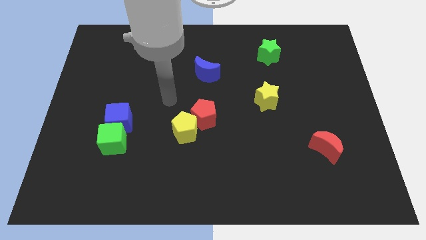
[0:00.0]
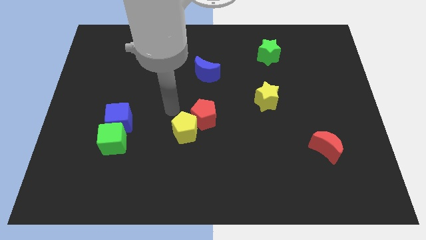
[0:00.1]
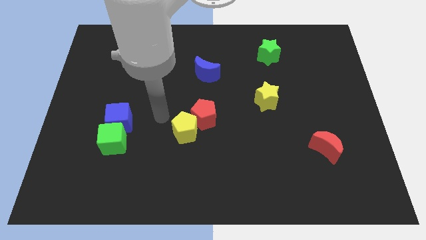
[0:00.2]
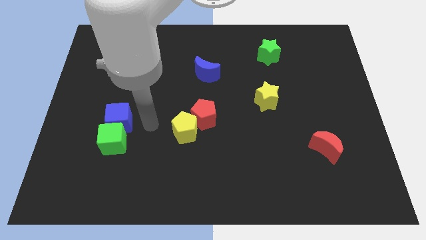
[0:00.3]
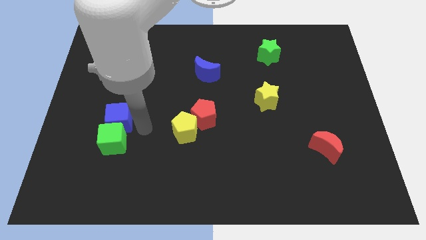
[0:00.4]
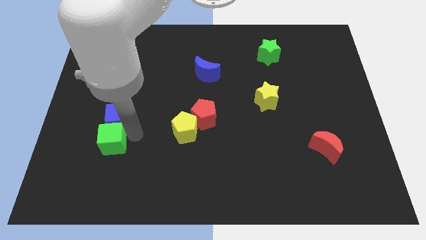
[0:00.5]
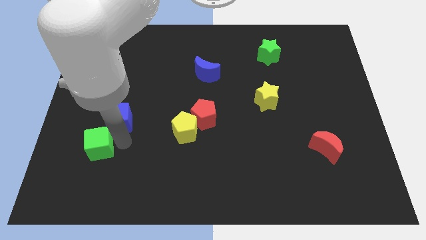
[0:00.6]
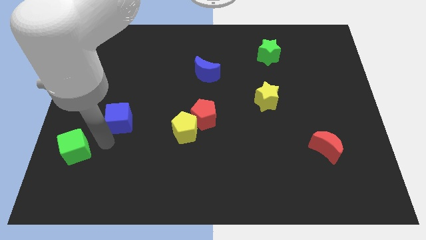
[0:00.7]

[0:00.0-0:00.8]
separate the blue cube from the green cube

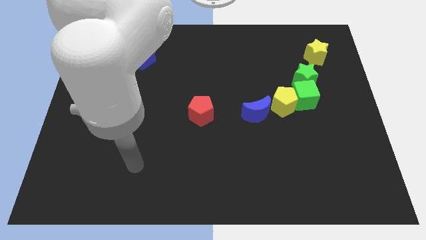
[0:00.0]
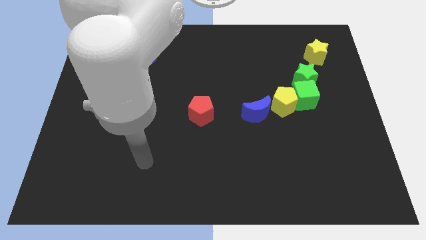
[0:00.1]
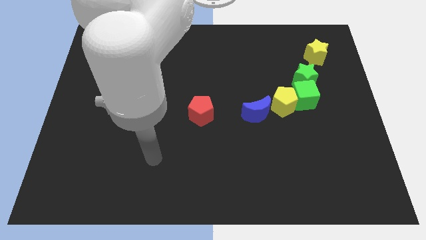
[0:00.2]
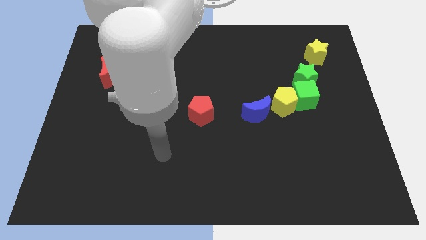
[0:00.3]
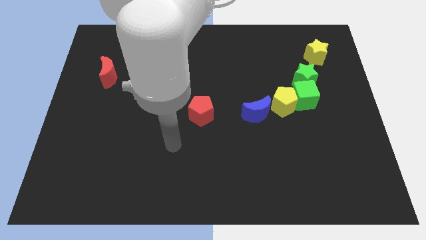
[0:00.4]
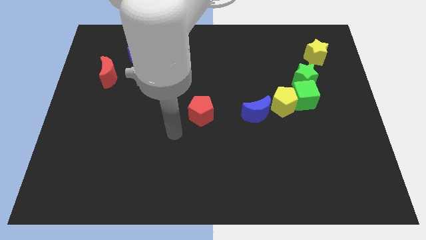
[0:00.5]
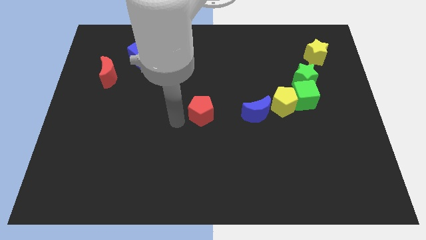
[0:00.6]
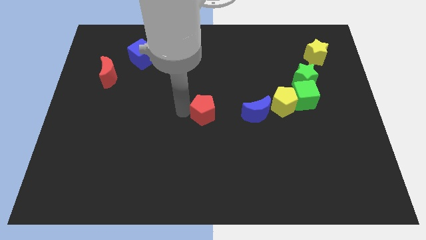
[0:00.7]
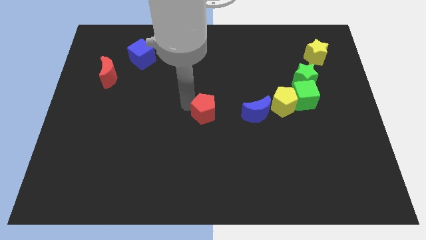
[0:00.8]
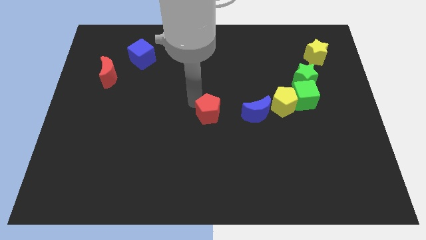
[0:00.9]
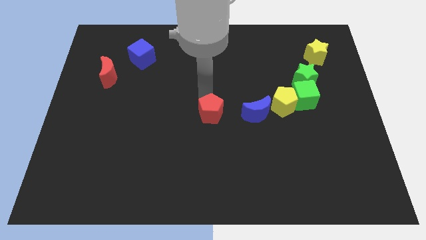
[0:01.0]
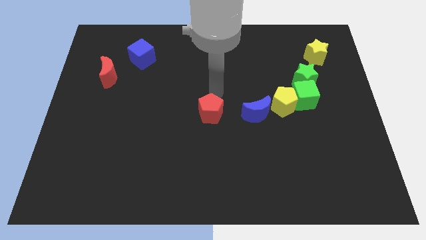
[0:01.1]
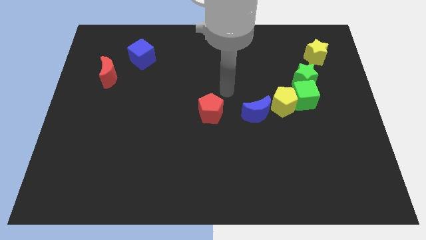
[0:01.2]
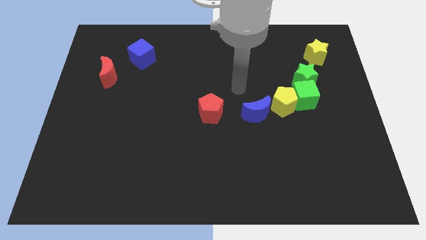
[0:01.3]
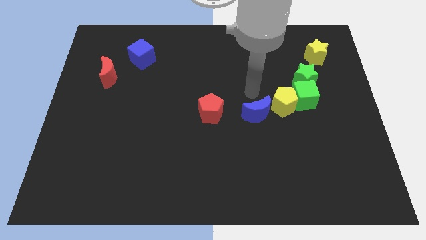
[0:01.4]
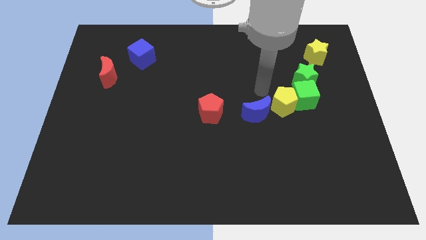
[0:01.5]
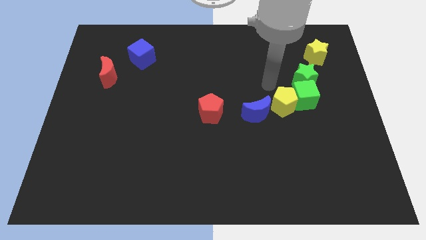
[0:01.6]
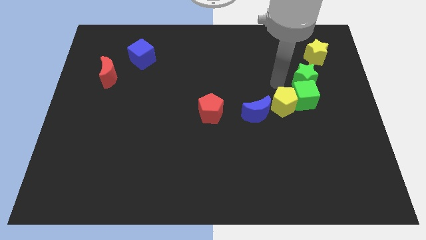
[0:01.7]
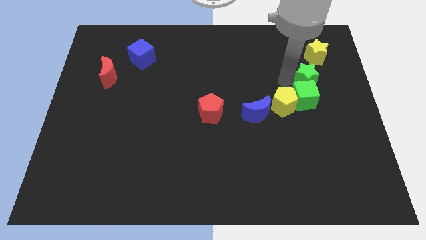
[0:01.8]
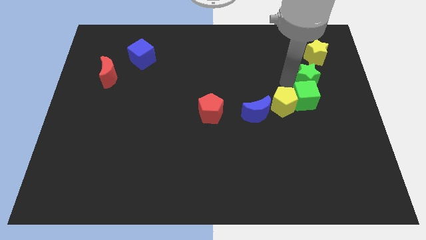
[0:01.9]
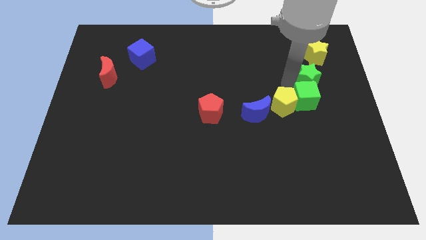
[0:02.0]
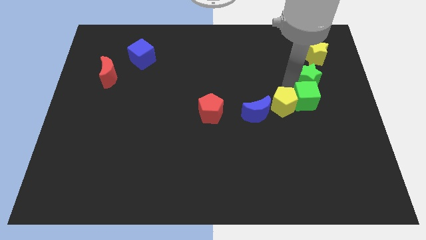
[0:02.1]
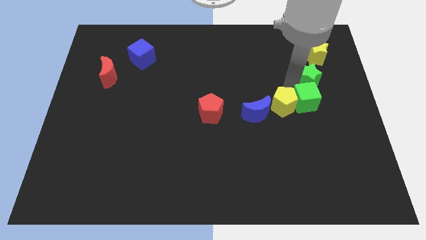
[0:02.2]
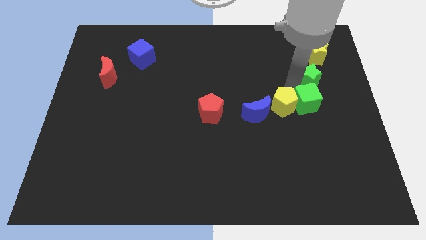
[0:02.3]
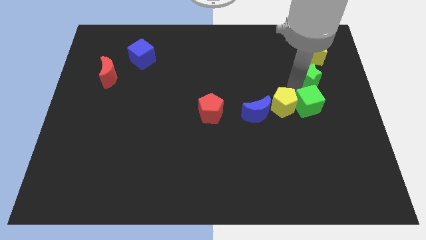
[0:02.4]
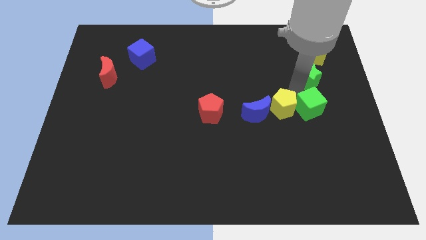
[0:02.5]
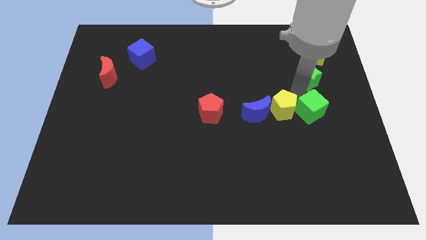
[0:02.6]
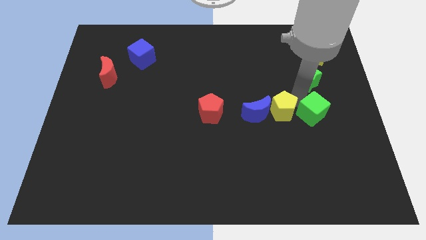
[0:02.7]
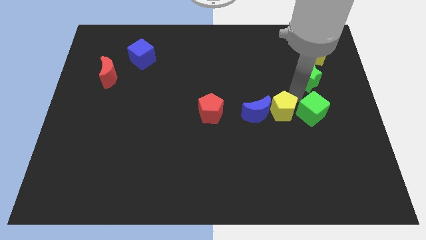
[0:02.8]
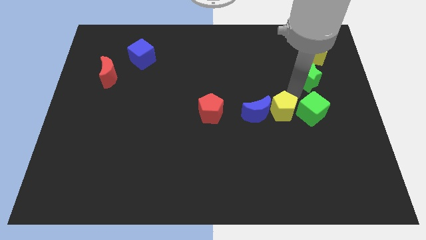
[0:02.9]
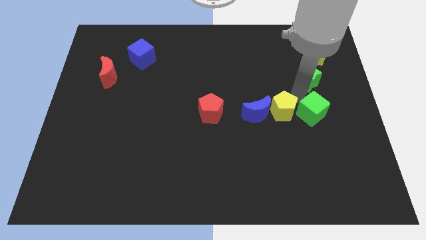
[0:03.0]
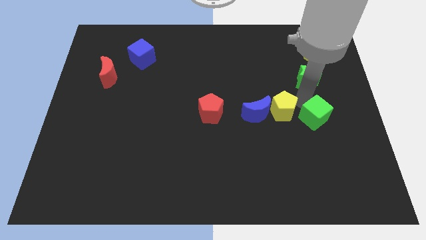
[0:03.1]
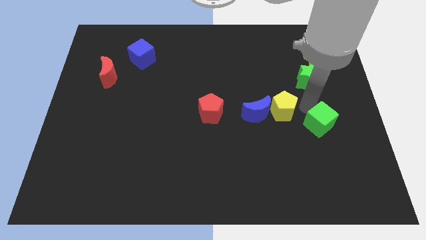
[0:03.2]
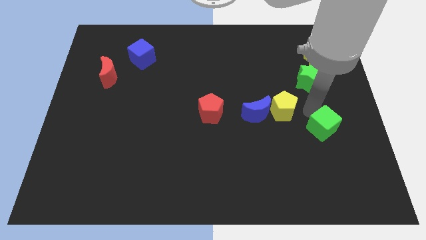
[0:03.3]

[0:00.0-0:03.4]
separate the green cube from the yellow pentagon and green star

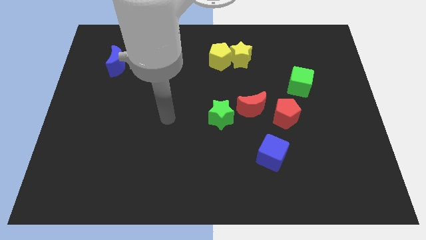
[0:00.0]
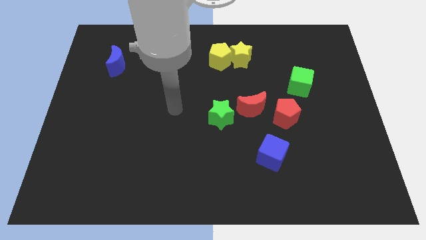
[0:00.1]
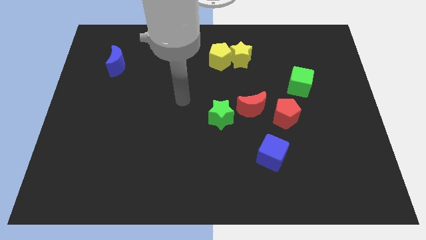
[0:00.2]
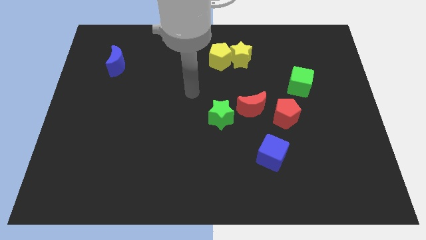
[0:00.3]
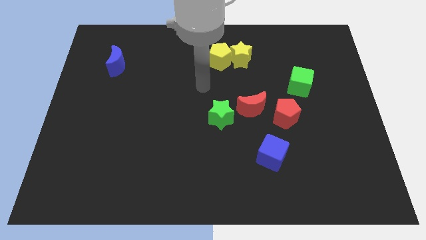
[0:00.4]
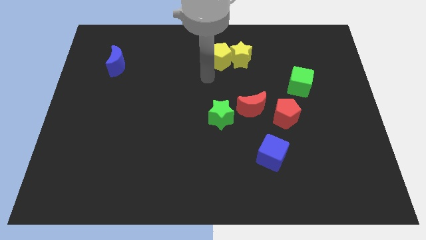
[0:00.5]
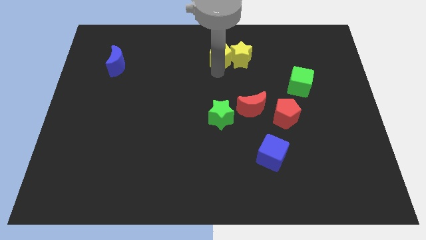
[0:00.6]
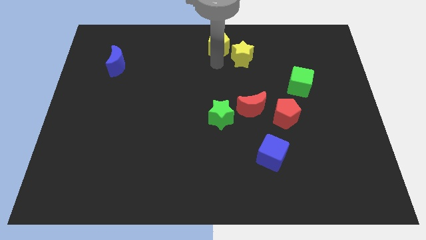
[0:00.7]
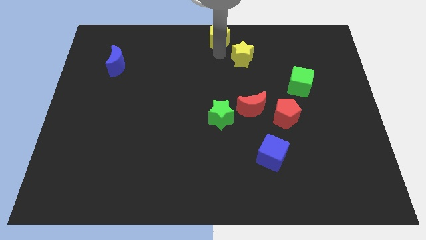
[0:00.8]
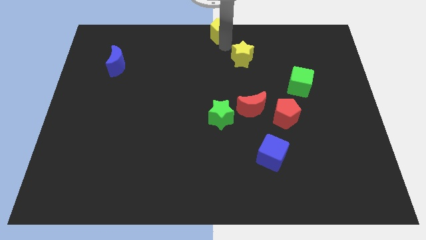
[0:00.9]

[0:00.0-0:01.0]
move the yellow star away from the yellow pentagon

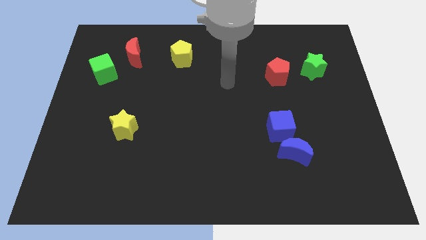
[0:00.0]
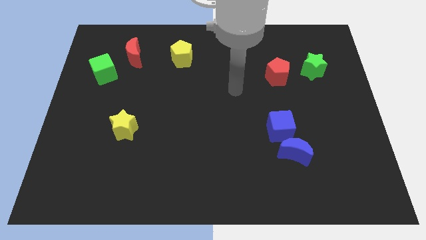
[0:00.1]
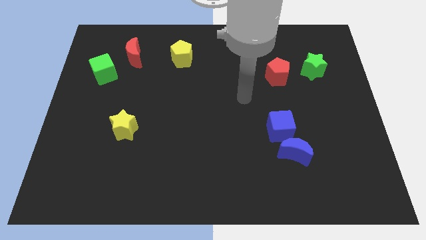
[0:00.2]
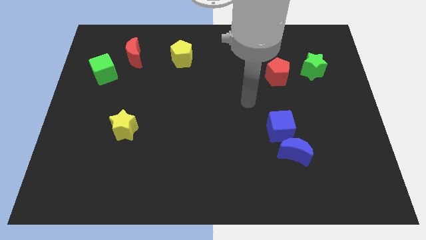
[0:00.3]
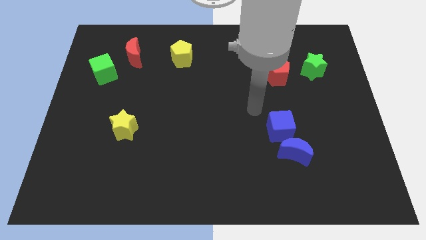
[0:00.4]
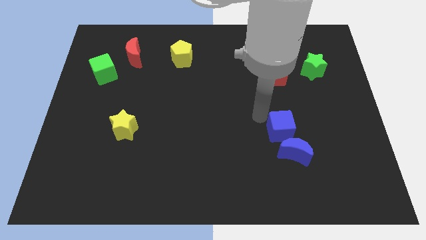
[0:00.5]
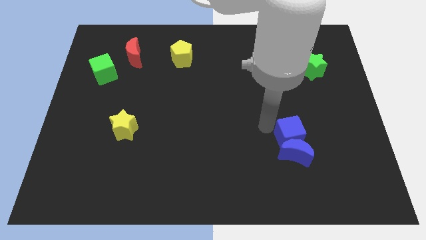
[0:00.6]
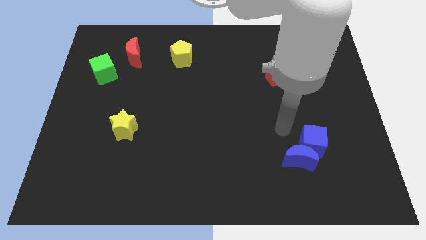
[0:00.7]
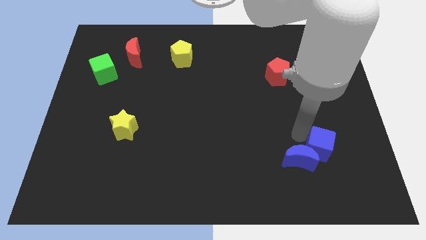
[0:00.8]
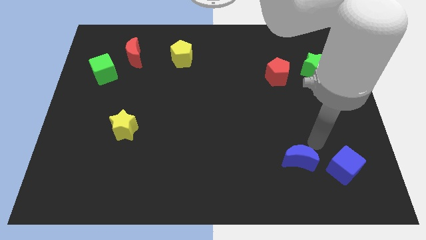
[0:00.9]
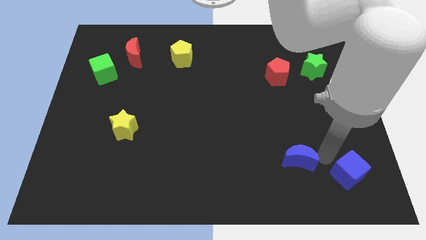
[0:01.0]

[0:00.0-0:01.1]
move the blue moon away from the blue cube

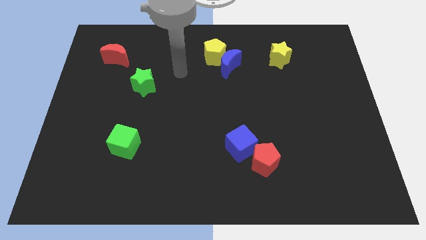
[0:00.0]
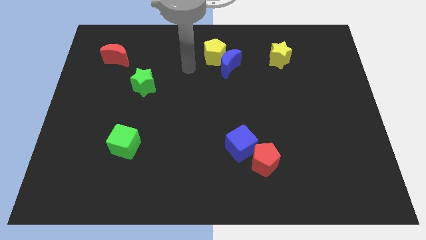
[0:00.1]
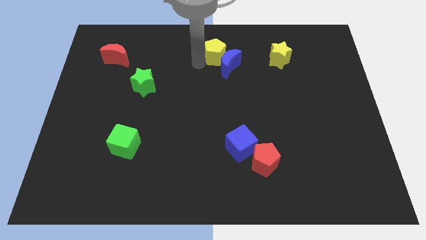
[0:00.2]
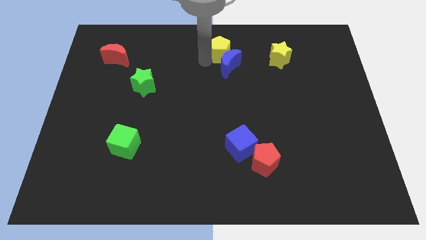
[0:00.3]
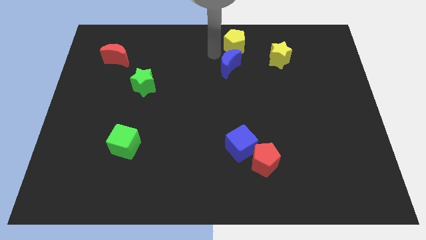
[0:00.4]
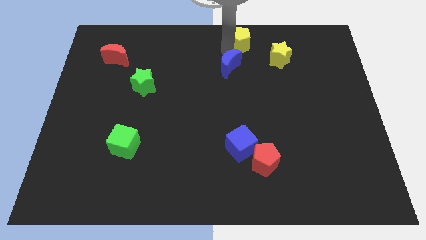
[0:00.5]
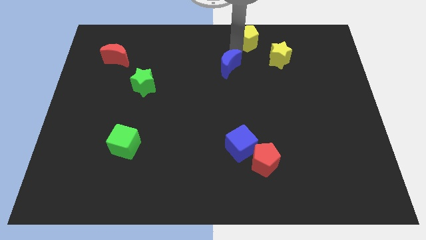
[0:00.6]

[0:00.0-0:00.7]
separate the blue moon from the yellow pentagon

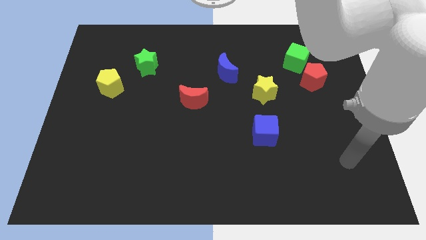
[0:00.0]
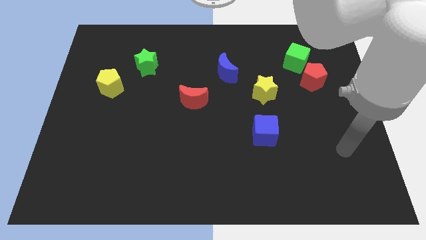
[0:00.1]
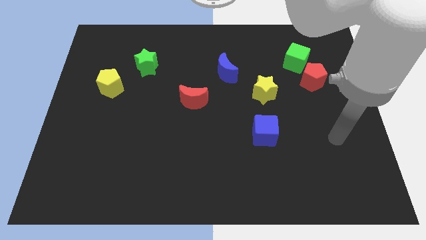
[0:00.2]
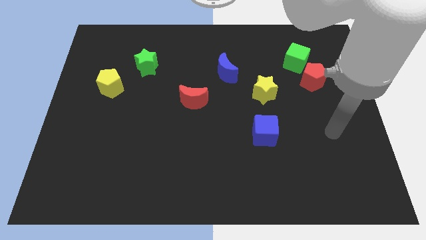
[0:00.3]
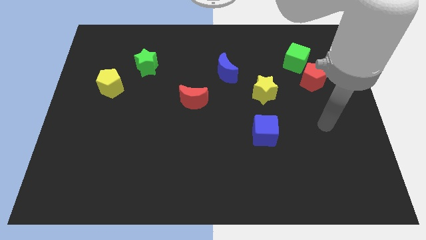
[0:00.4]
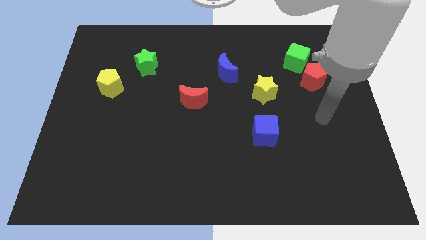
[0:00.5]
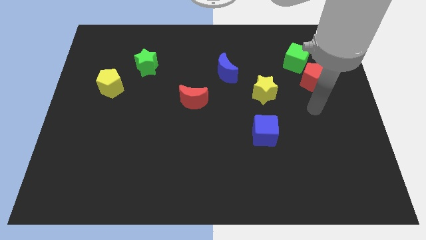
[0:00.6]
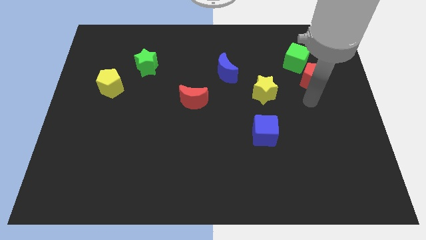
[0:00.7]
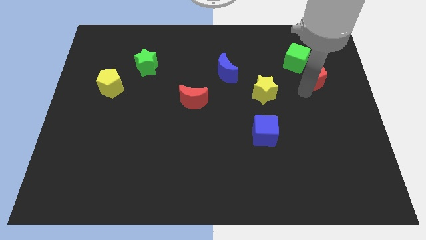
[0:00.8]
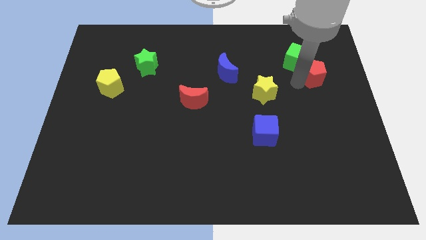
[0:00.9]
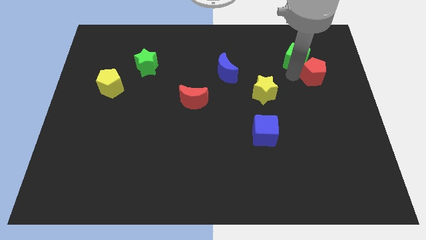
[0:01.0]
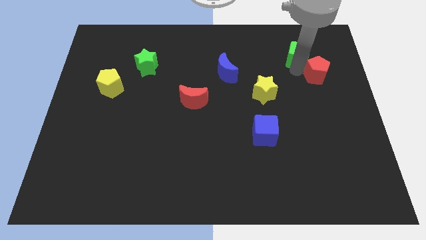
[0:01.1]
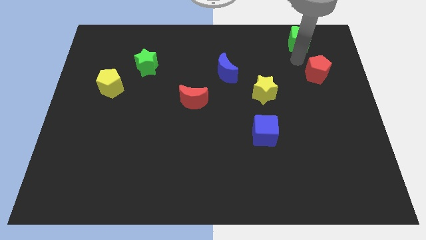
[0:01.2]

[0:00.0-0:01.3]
separate the red pentagon from the green cube

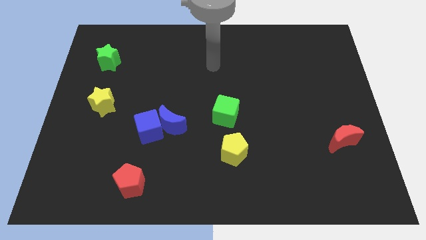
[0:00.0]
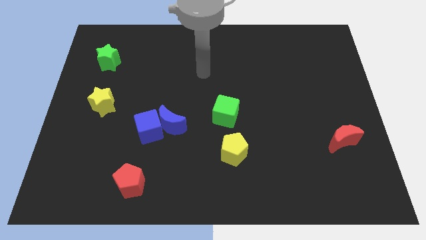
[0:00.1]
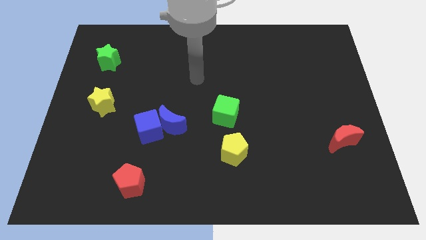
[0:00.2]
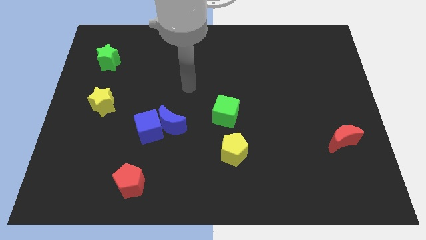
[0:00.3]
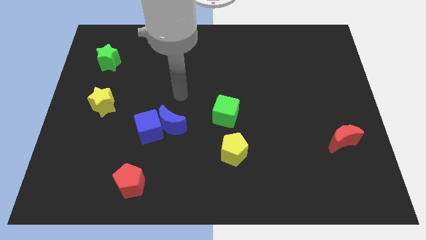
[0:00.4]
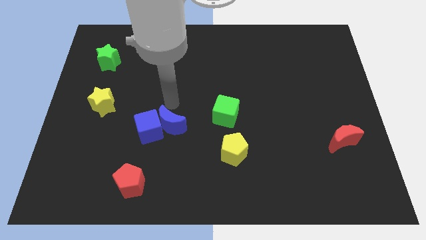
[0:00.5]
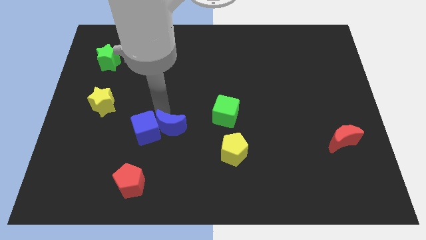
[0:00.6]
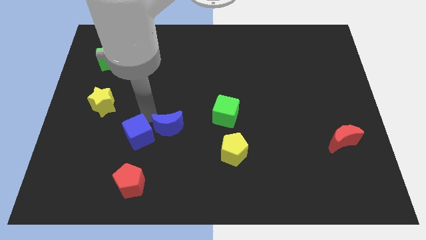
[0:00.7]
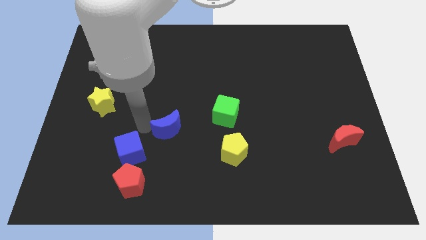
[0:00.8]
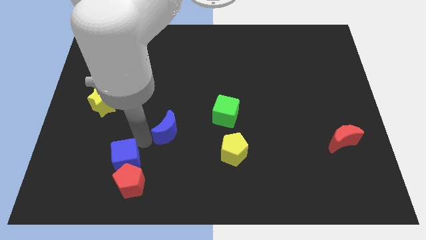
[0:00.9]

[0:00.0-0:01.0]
pull the blue moon apart from the blue cube
